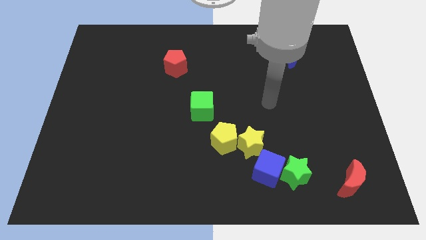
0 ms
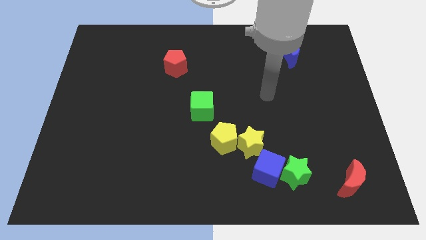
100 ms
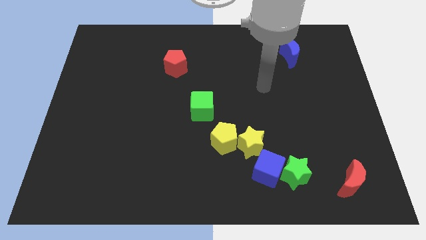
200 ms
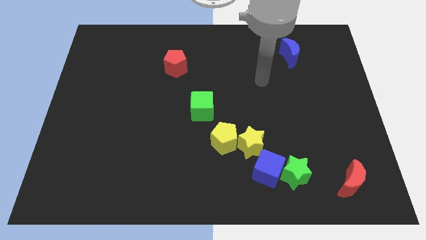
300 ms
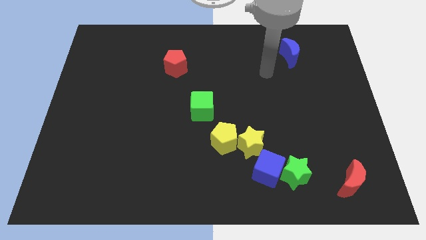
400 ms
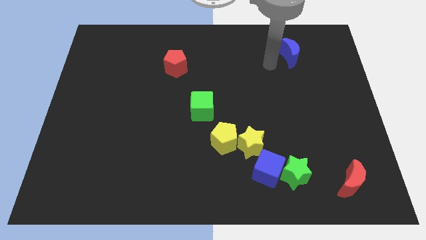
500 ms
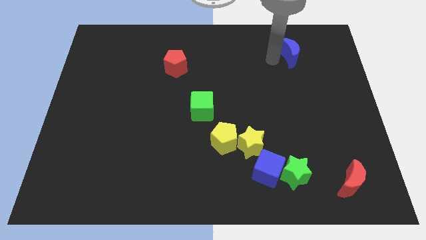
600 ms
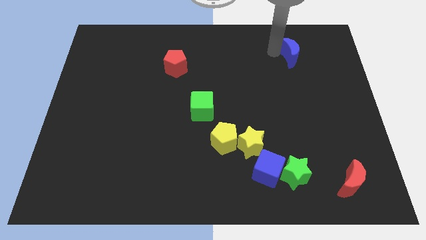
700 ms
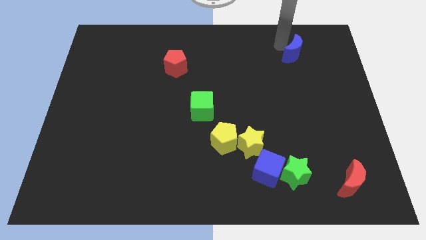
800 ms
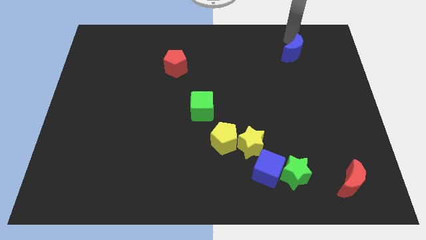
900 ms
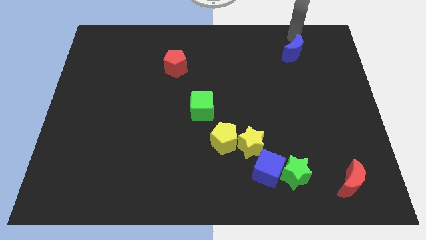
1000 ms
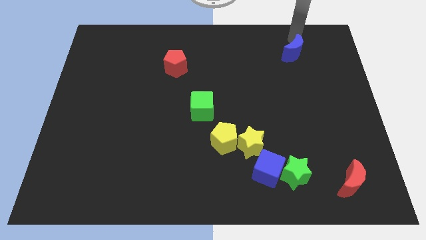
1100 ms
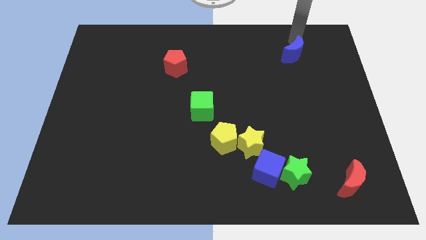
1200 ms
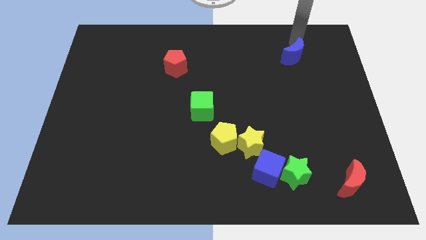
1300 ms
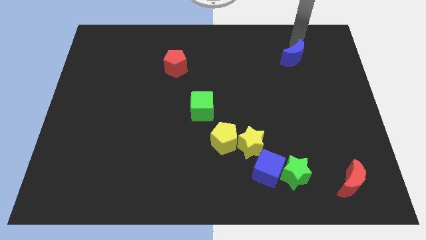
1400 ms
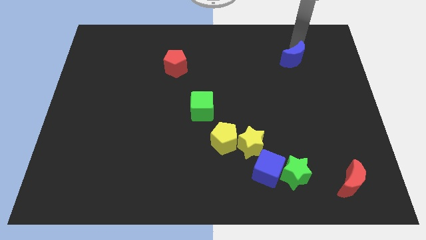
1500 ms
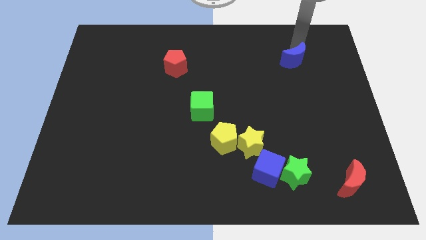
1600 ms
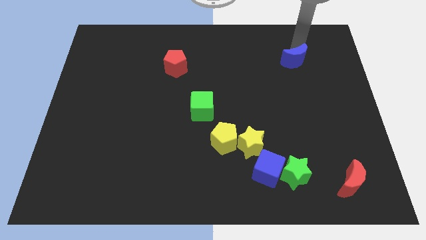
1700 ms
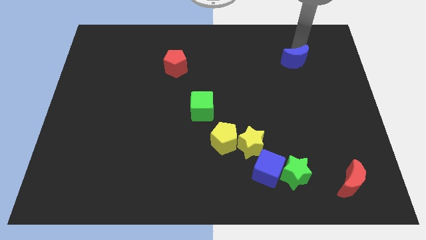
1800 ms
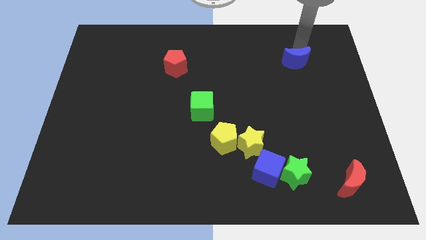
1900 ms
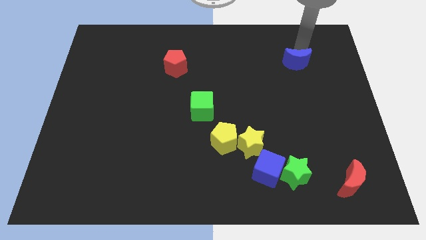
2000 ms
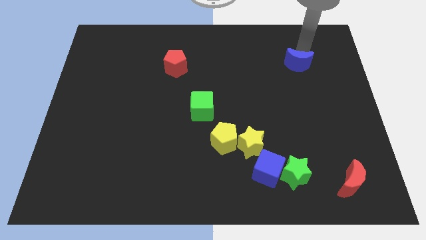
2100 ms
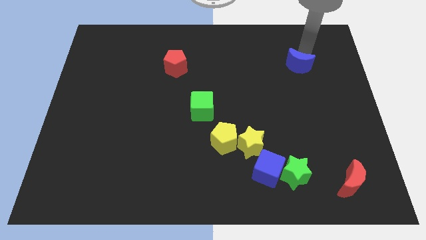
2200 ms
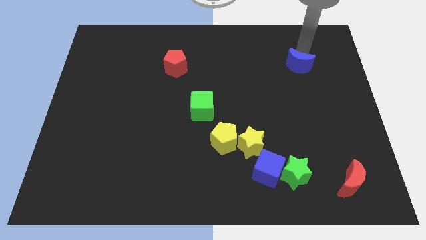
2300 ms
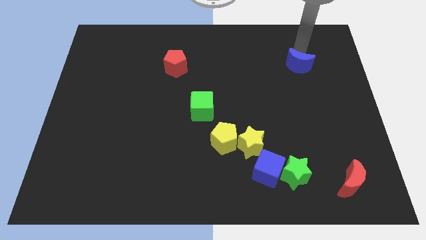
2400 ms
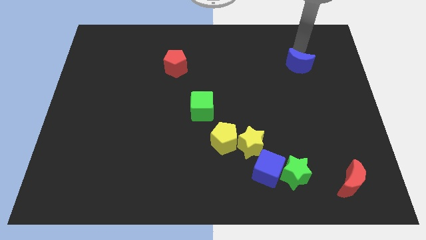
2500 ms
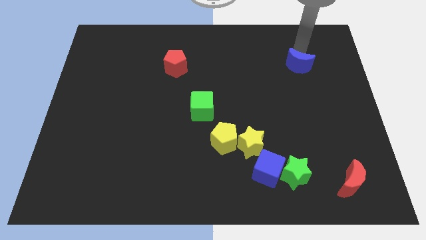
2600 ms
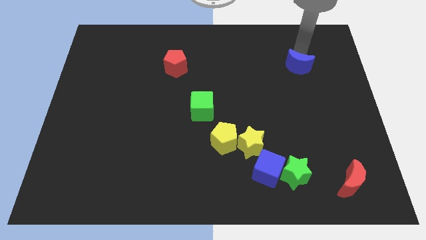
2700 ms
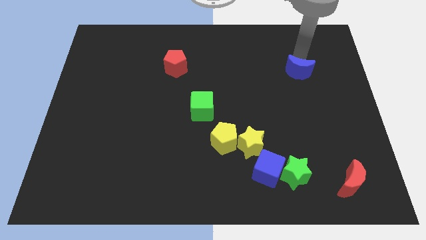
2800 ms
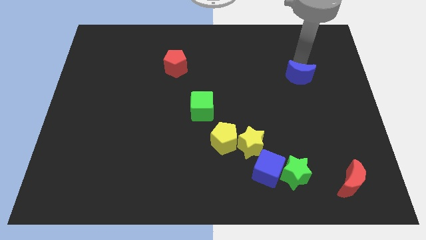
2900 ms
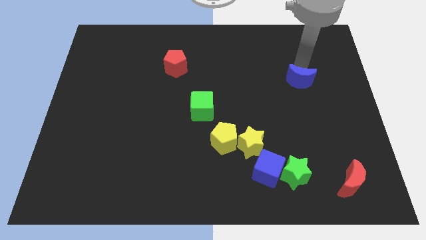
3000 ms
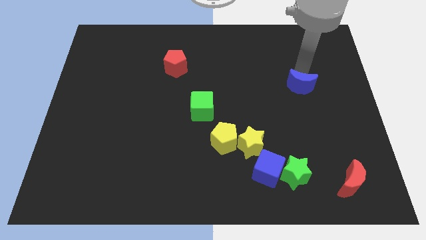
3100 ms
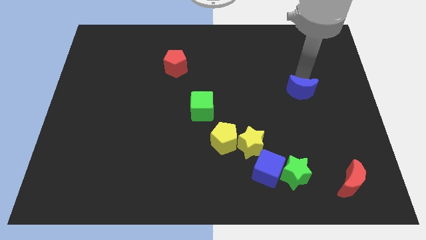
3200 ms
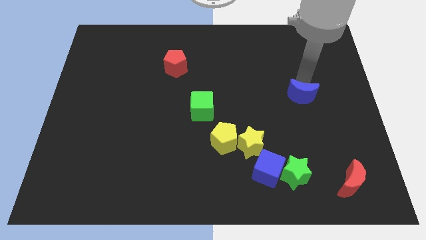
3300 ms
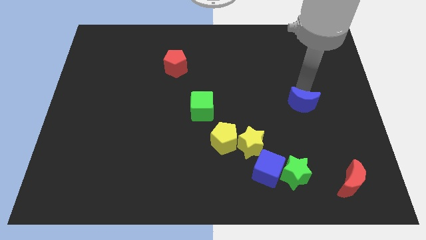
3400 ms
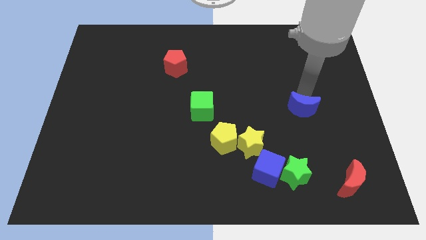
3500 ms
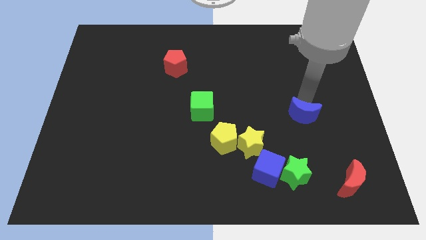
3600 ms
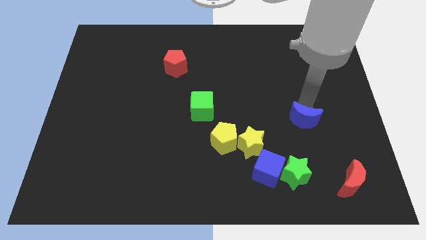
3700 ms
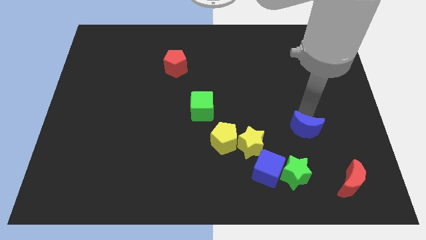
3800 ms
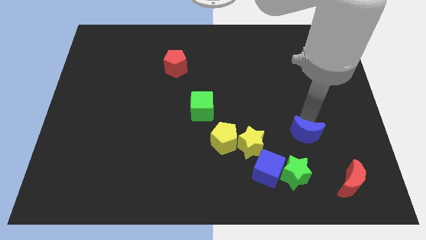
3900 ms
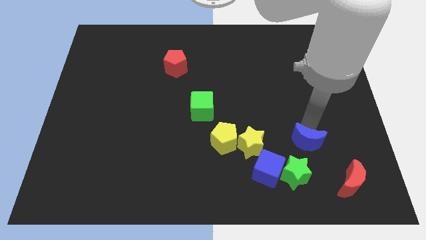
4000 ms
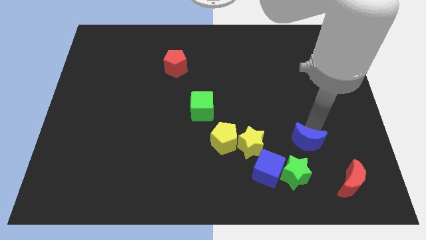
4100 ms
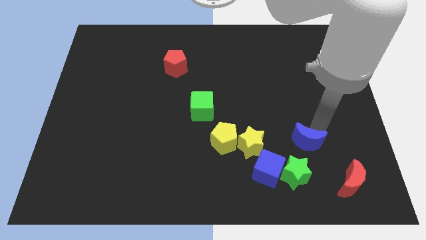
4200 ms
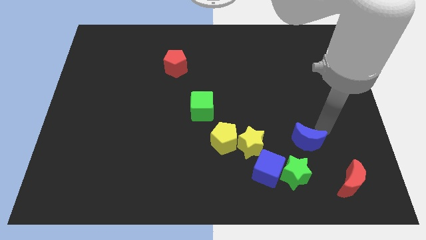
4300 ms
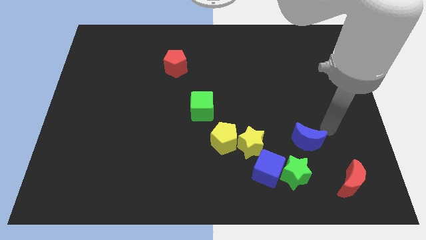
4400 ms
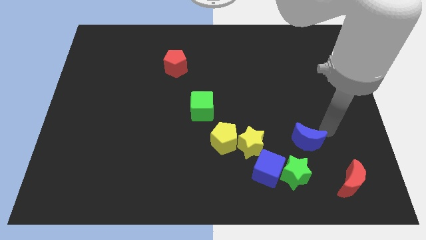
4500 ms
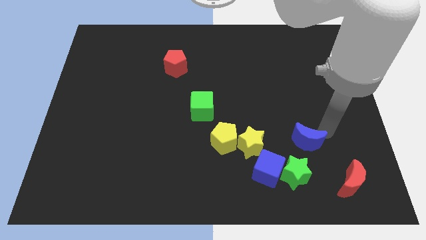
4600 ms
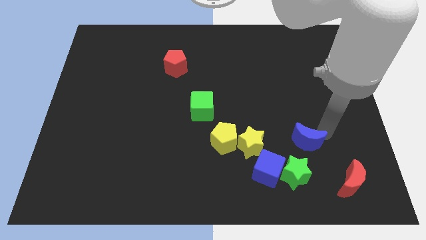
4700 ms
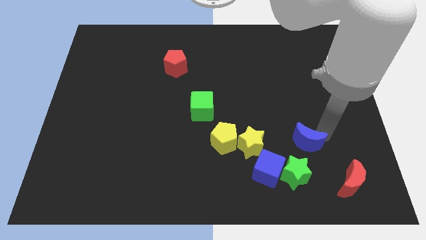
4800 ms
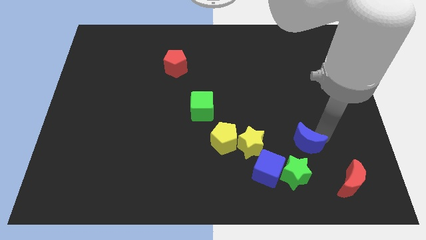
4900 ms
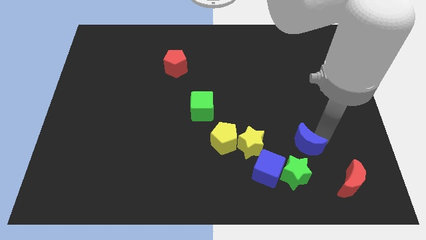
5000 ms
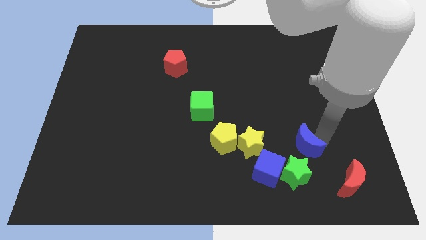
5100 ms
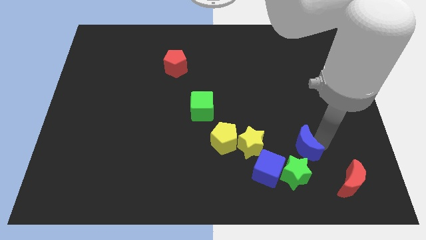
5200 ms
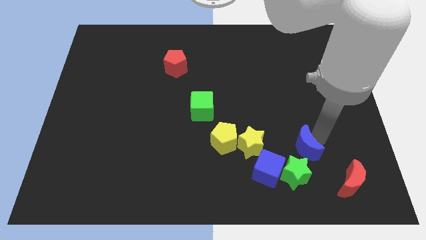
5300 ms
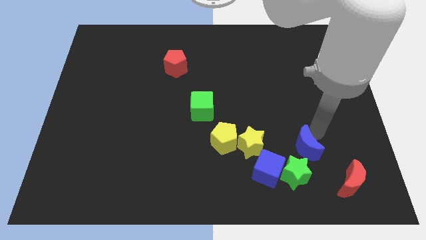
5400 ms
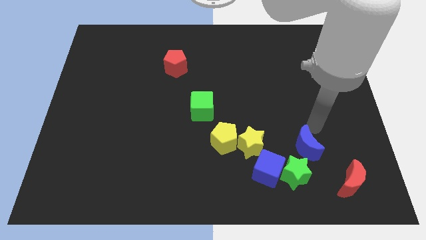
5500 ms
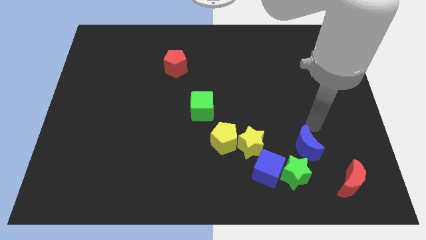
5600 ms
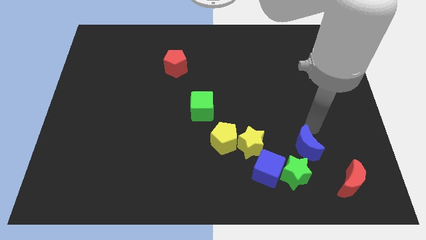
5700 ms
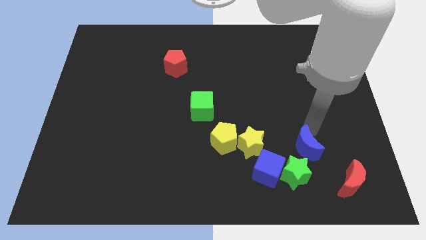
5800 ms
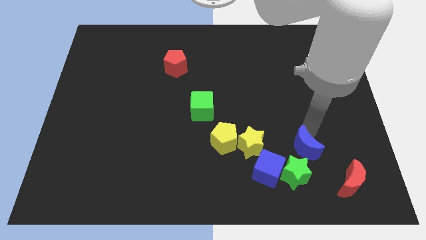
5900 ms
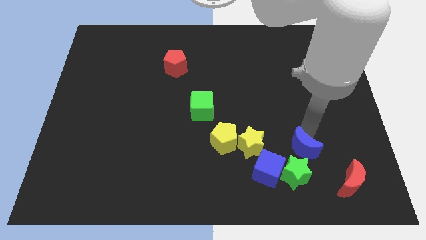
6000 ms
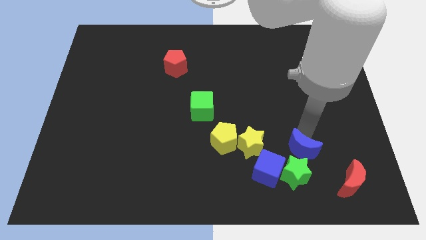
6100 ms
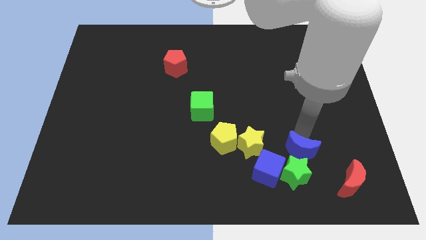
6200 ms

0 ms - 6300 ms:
slide the blue moon close to the green star

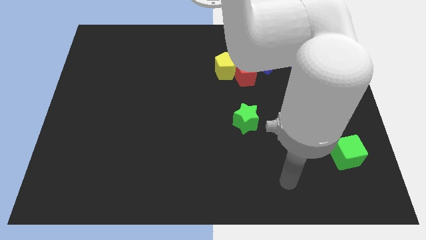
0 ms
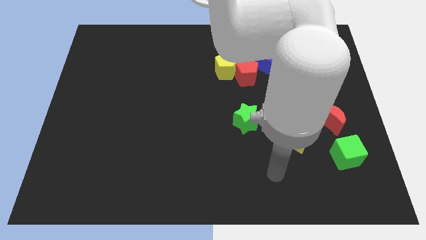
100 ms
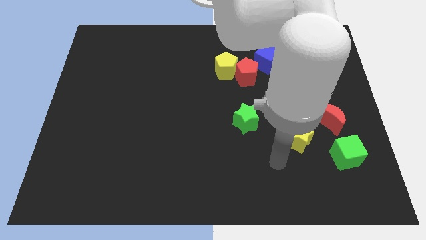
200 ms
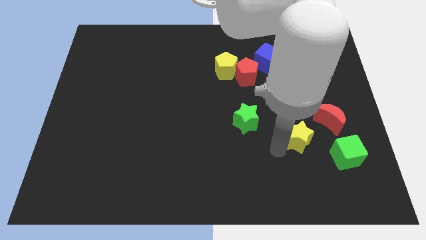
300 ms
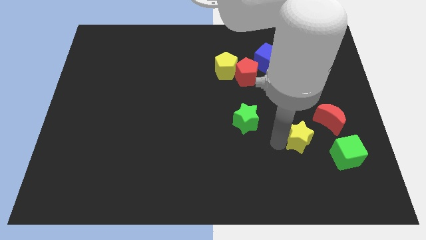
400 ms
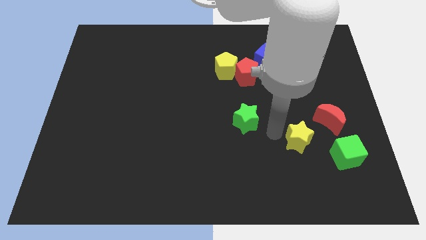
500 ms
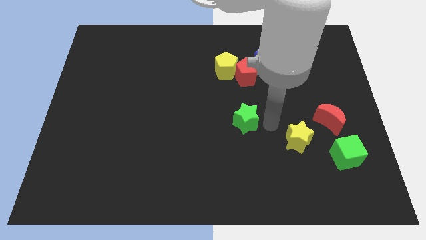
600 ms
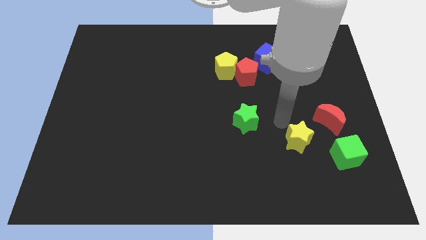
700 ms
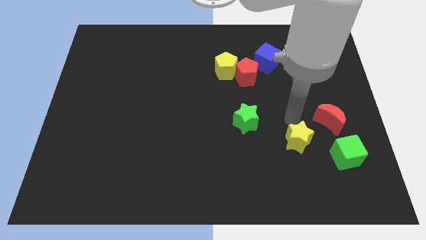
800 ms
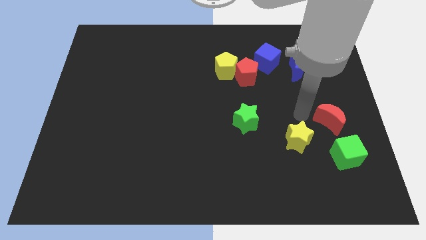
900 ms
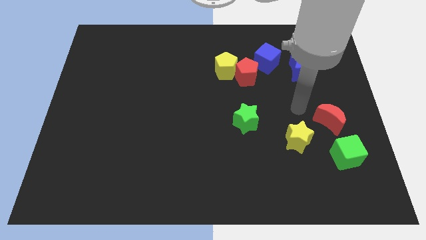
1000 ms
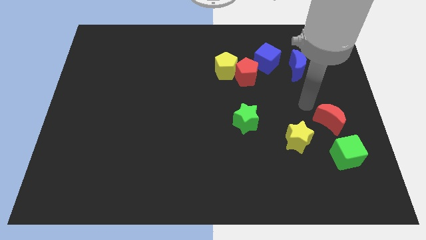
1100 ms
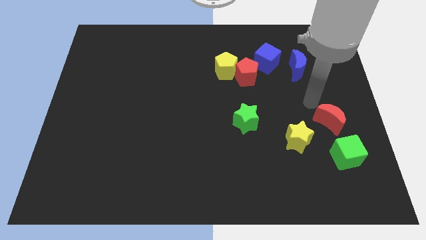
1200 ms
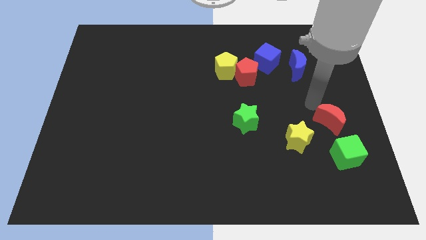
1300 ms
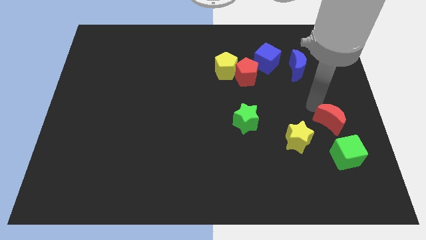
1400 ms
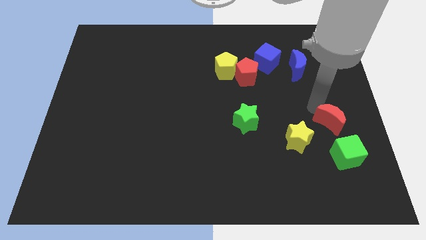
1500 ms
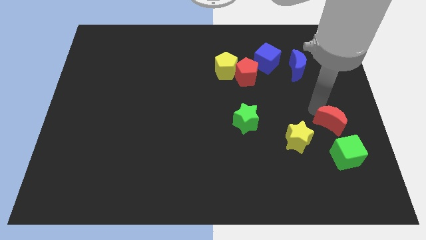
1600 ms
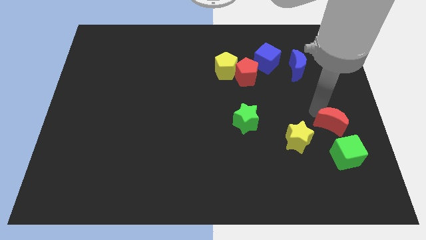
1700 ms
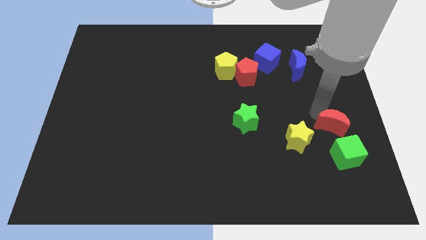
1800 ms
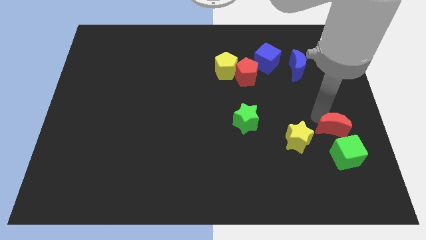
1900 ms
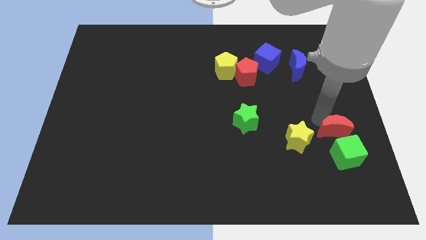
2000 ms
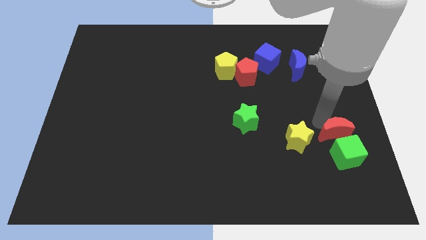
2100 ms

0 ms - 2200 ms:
move the red moon to the green cube
